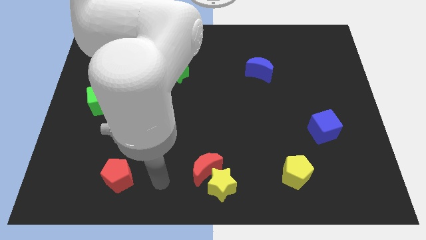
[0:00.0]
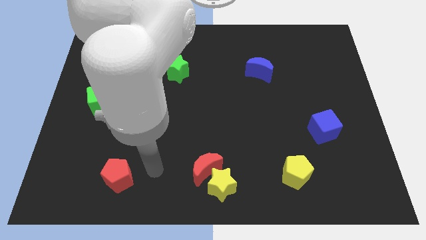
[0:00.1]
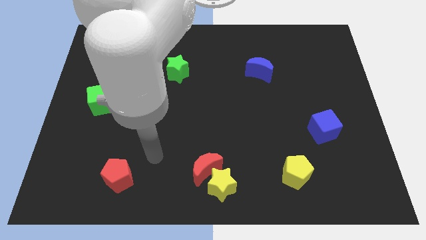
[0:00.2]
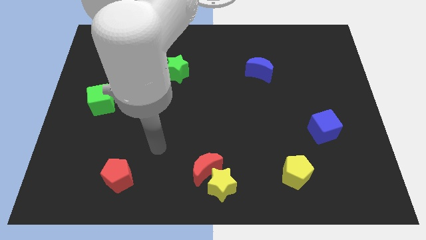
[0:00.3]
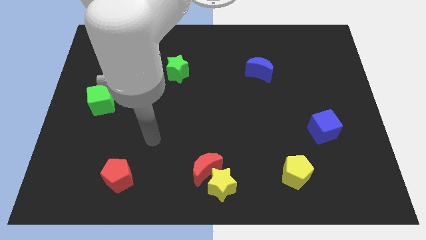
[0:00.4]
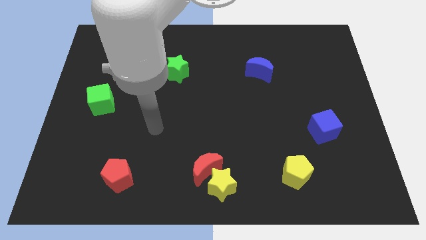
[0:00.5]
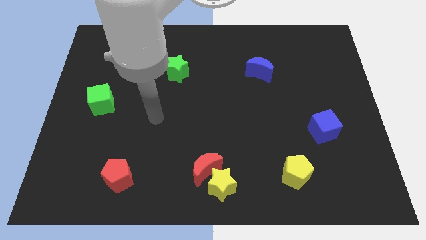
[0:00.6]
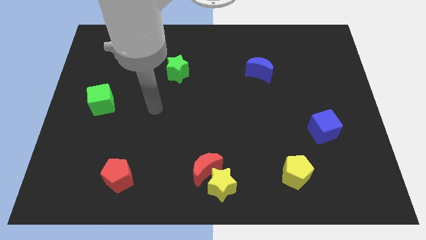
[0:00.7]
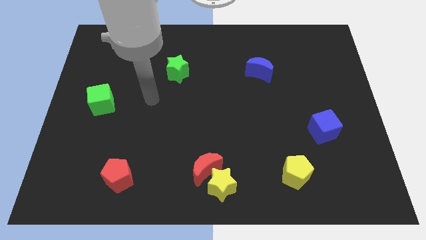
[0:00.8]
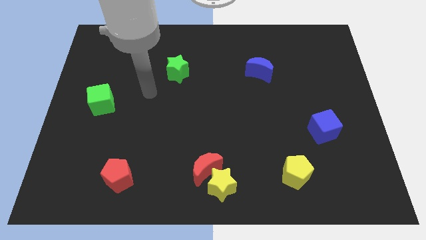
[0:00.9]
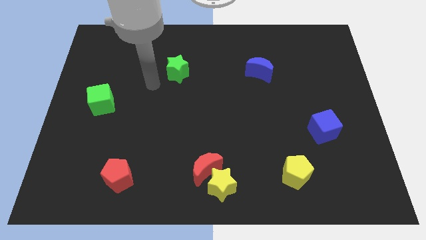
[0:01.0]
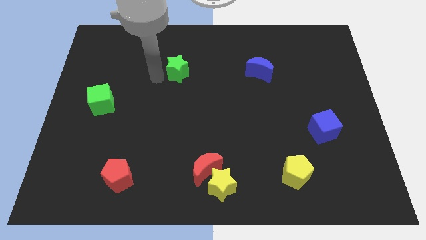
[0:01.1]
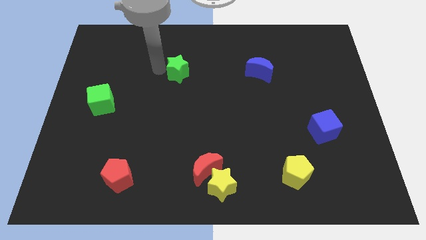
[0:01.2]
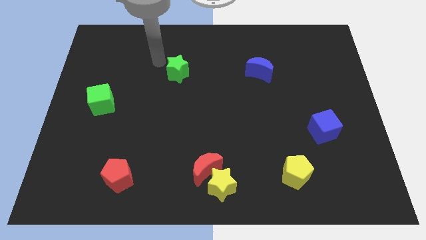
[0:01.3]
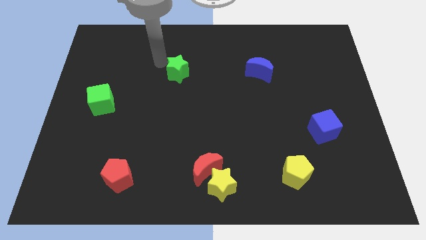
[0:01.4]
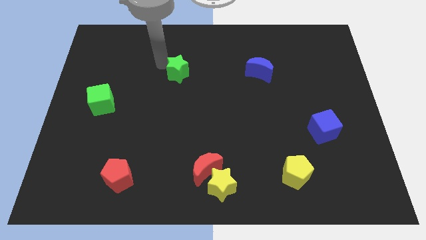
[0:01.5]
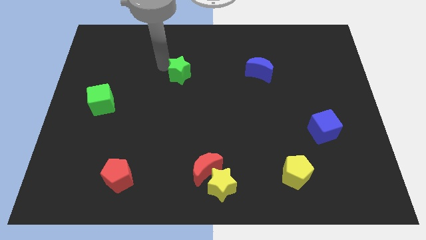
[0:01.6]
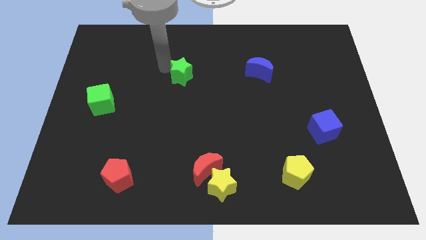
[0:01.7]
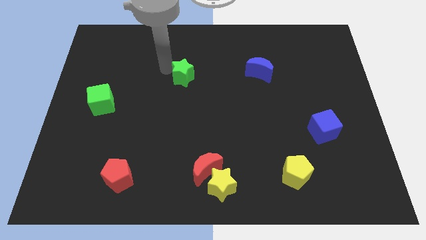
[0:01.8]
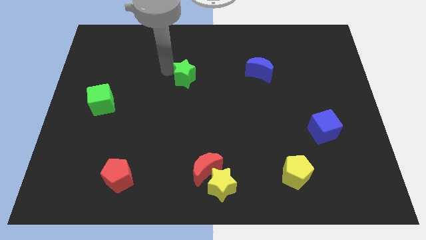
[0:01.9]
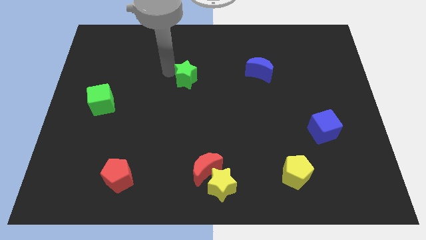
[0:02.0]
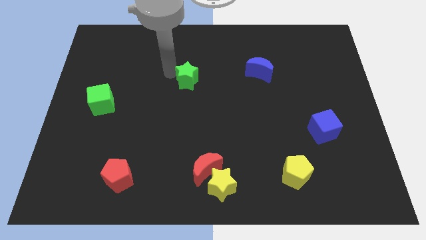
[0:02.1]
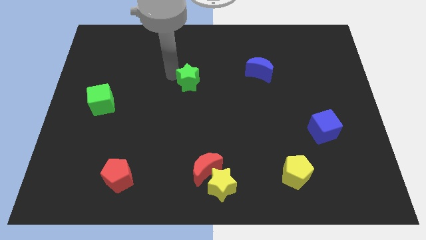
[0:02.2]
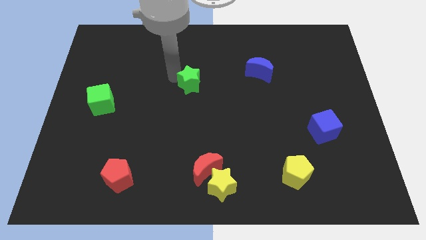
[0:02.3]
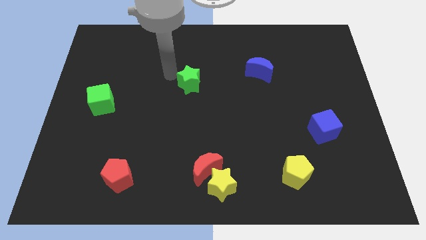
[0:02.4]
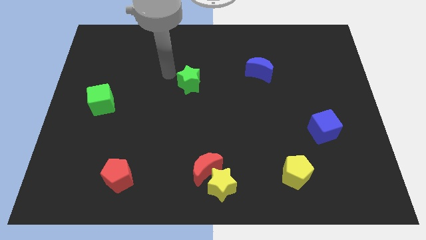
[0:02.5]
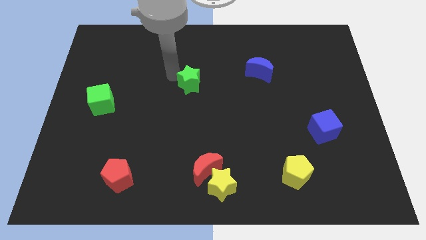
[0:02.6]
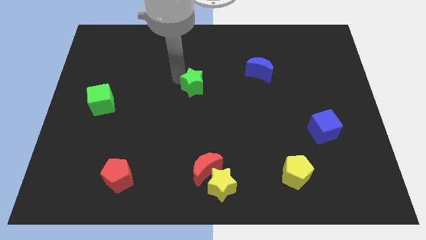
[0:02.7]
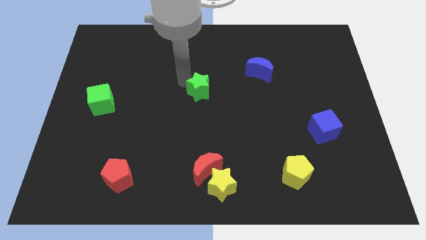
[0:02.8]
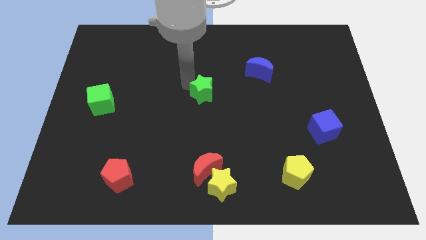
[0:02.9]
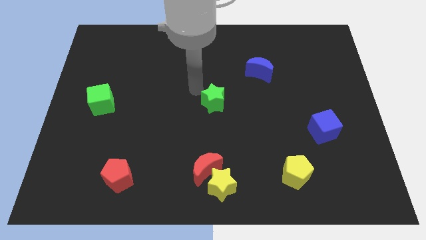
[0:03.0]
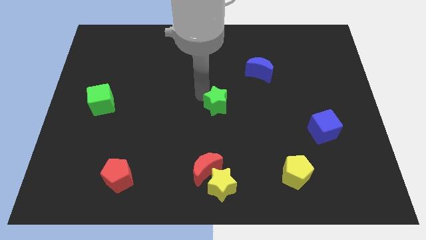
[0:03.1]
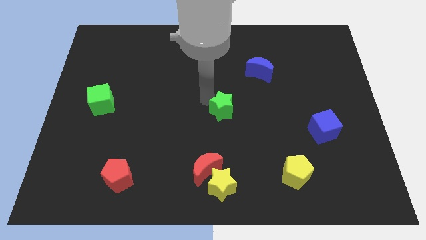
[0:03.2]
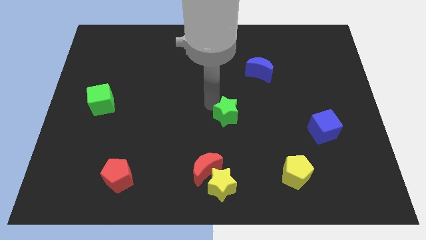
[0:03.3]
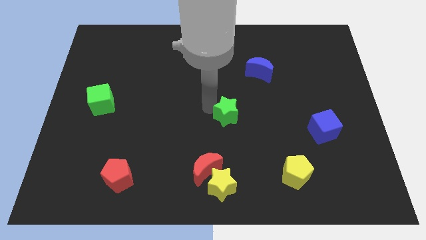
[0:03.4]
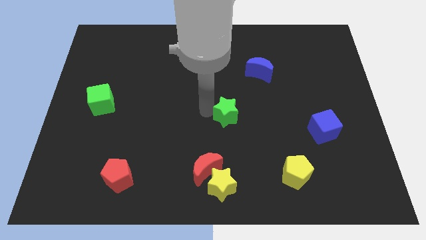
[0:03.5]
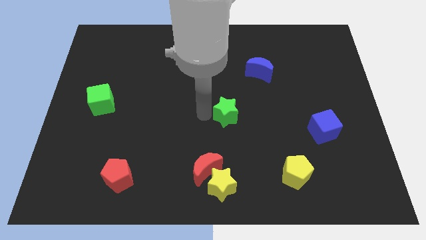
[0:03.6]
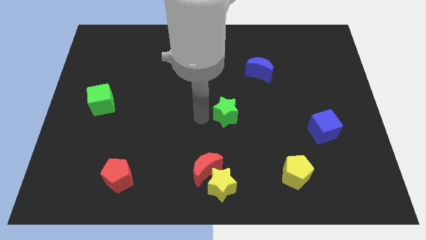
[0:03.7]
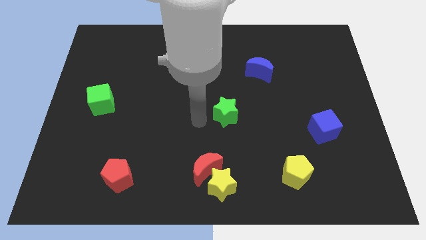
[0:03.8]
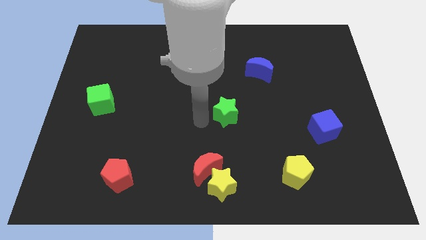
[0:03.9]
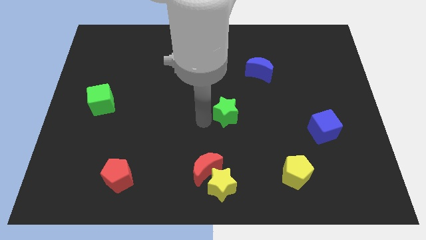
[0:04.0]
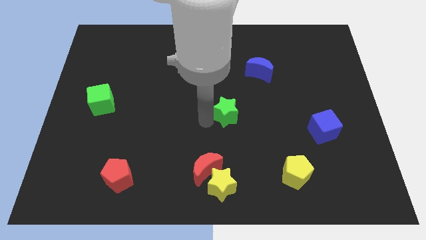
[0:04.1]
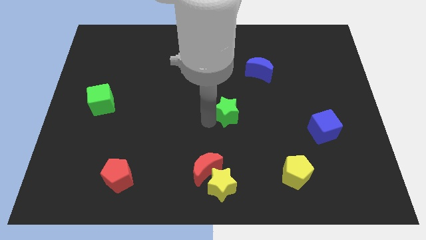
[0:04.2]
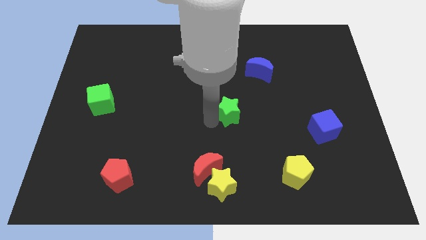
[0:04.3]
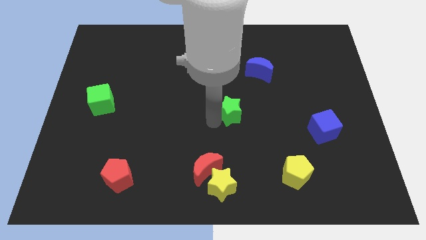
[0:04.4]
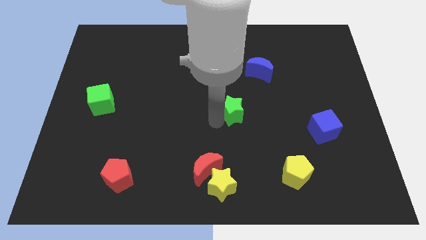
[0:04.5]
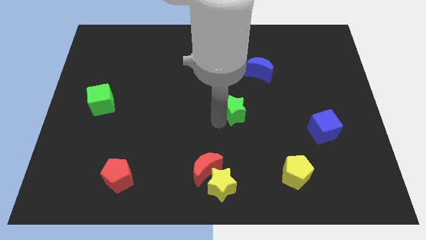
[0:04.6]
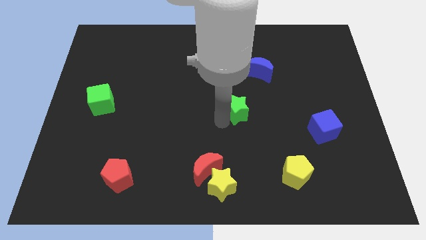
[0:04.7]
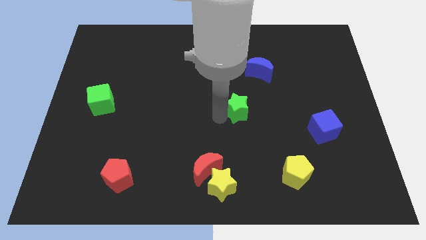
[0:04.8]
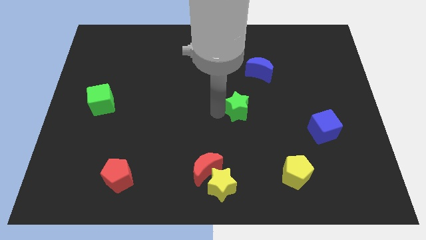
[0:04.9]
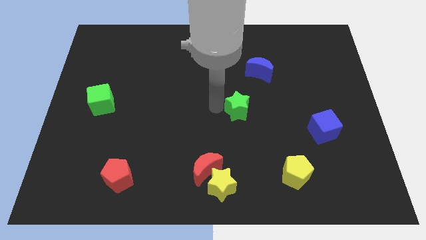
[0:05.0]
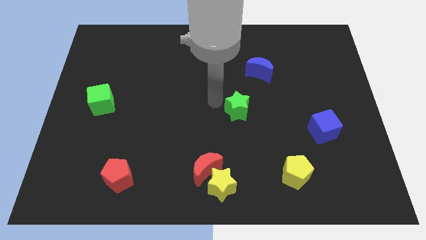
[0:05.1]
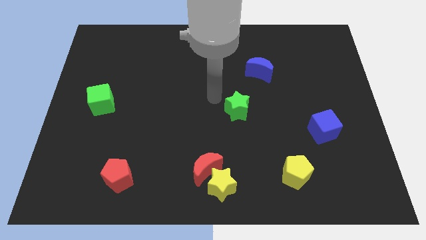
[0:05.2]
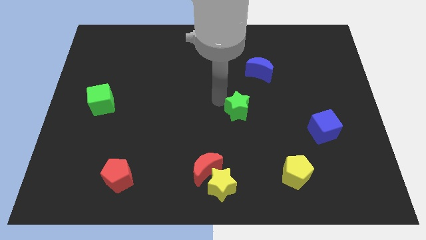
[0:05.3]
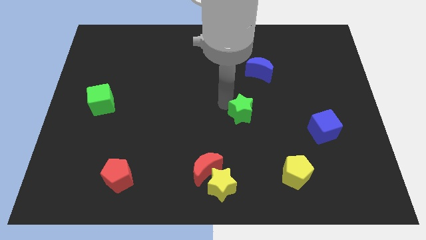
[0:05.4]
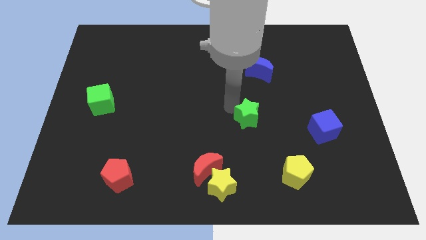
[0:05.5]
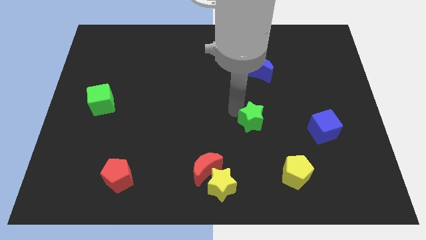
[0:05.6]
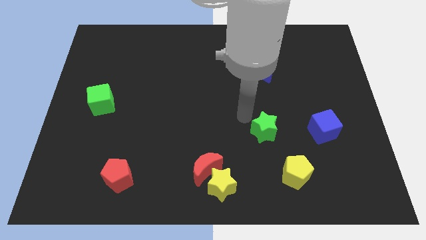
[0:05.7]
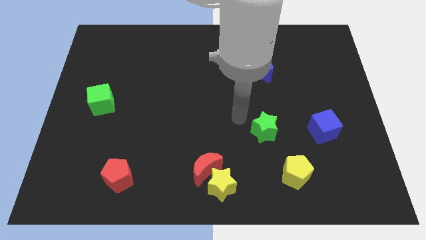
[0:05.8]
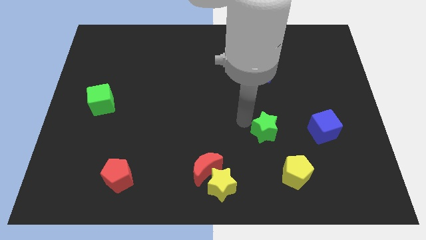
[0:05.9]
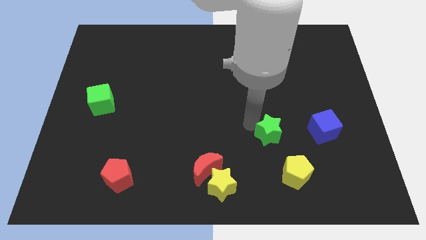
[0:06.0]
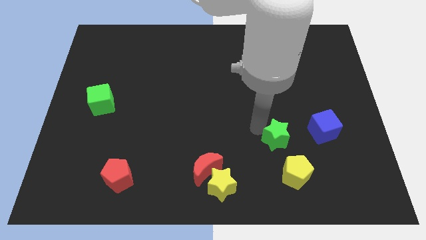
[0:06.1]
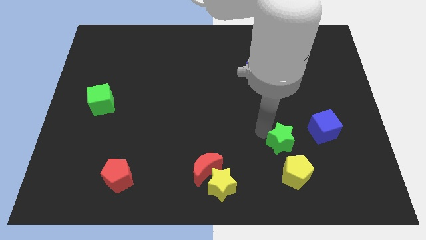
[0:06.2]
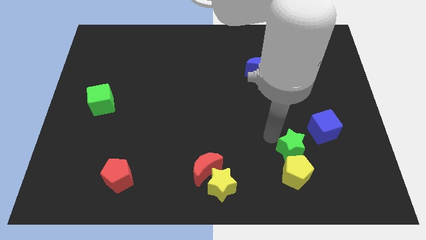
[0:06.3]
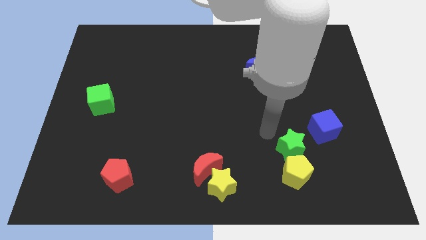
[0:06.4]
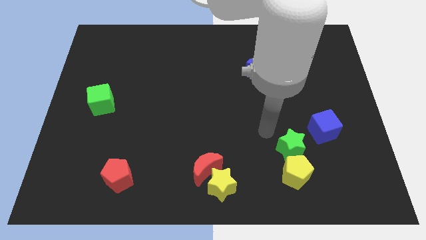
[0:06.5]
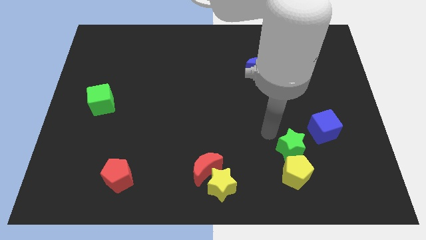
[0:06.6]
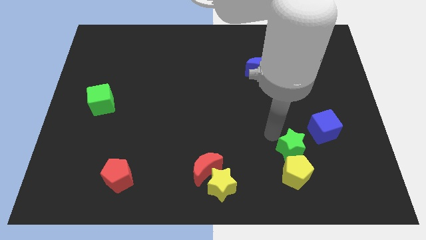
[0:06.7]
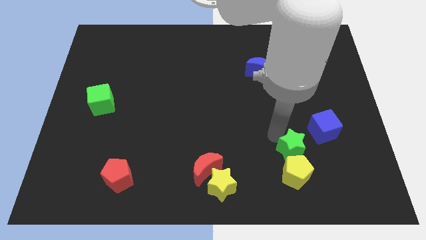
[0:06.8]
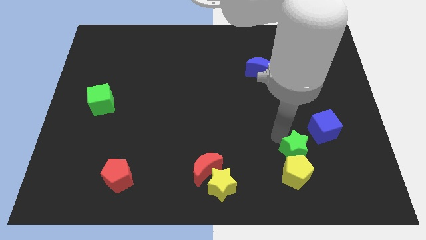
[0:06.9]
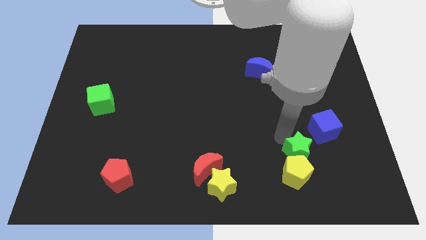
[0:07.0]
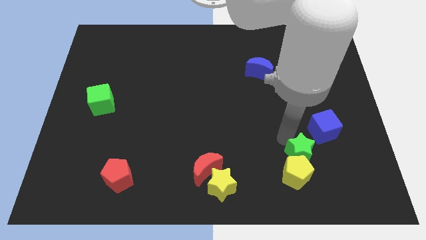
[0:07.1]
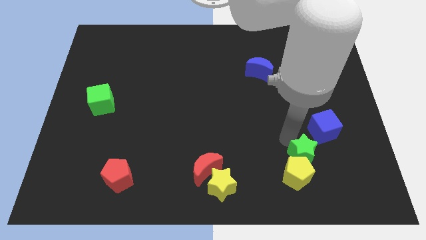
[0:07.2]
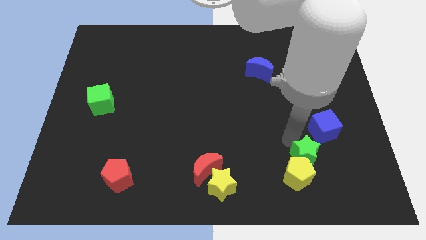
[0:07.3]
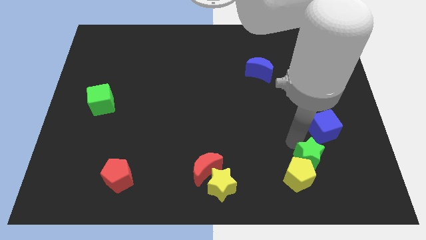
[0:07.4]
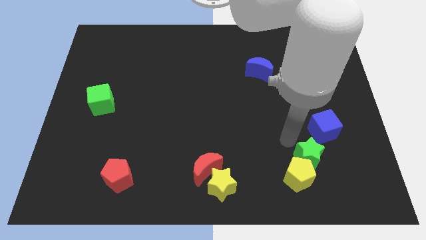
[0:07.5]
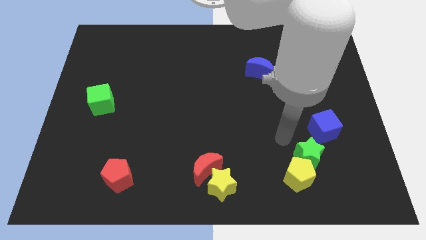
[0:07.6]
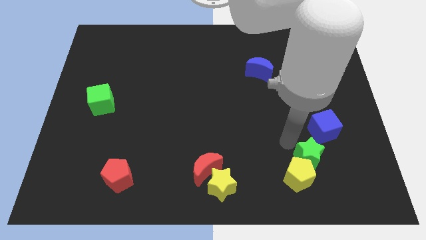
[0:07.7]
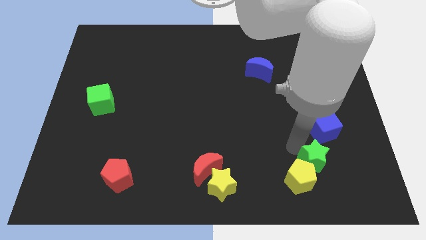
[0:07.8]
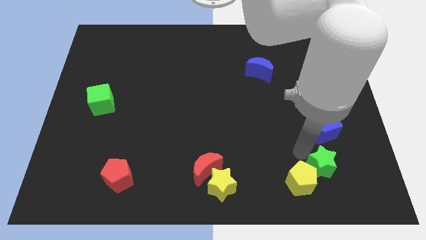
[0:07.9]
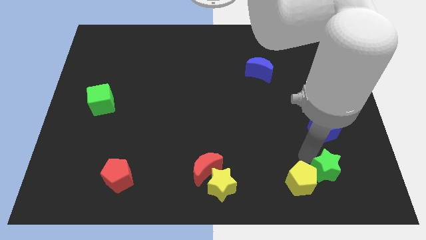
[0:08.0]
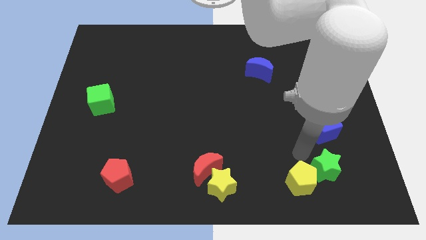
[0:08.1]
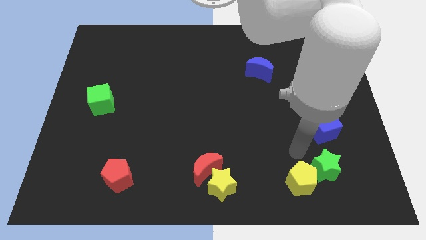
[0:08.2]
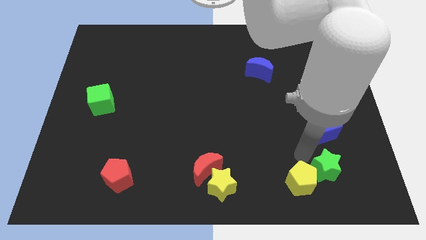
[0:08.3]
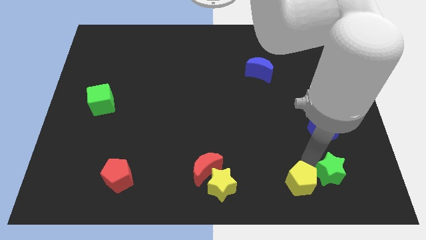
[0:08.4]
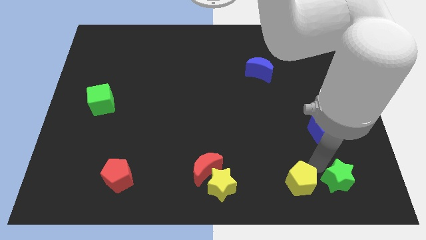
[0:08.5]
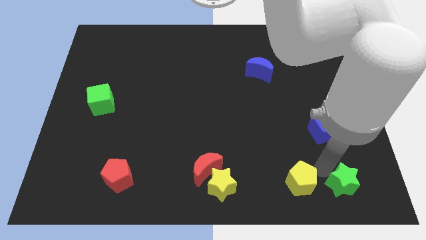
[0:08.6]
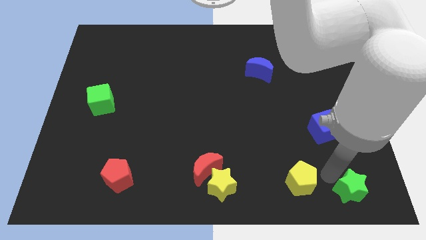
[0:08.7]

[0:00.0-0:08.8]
push the green star to the lower right corner
